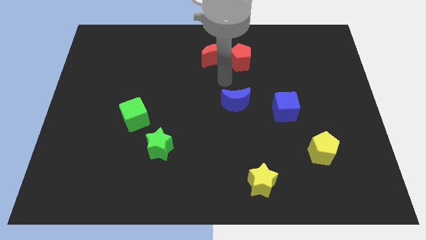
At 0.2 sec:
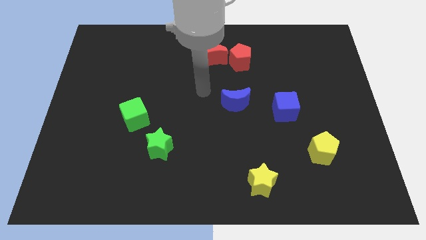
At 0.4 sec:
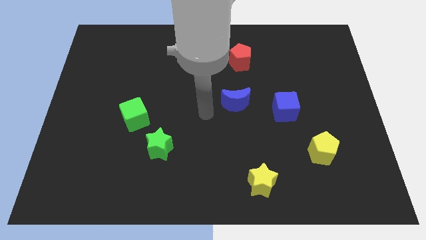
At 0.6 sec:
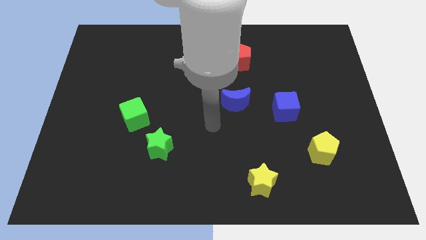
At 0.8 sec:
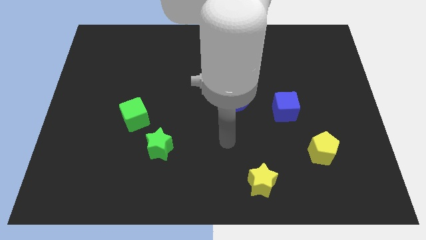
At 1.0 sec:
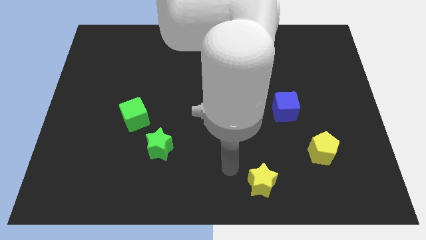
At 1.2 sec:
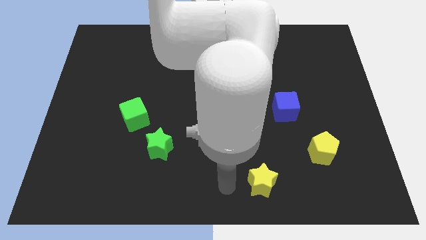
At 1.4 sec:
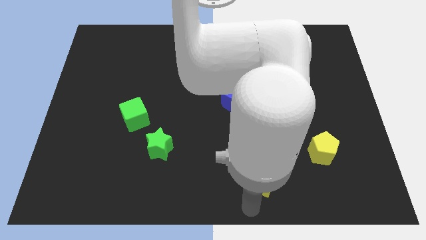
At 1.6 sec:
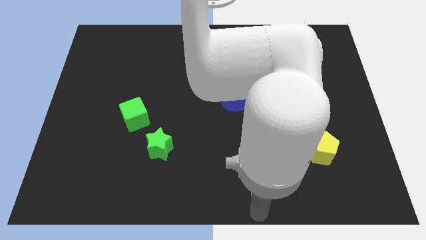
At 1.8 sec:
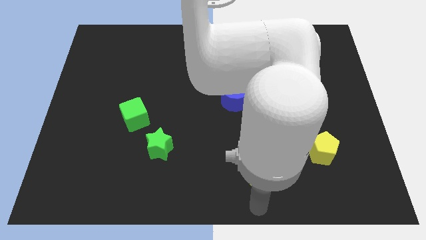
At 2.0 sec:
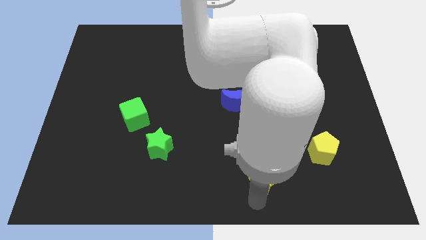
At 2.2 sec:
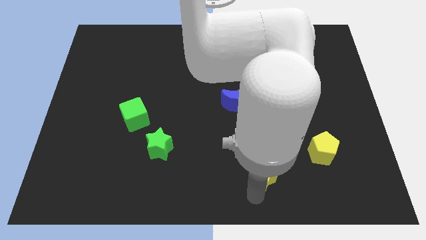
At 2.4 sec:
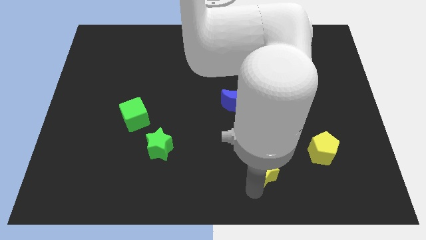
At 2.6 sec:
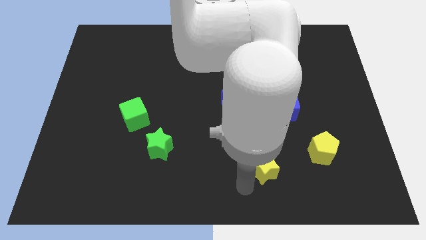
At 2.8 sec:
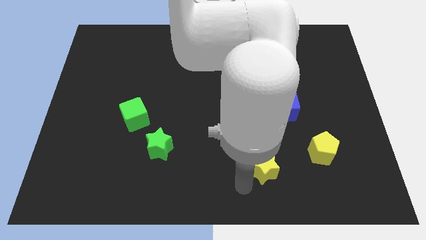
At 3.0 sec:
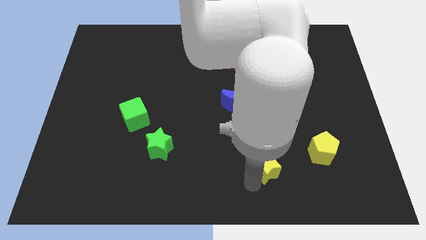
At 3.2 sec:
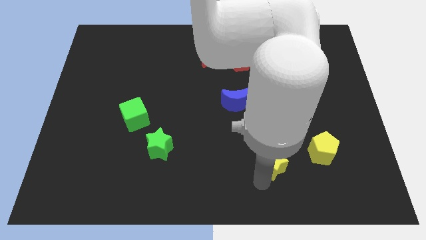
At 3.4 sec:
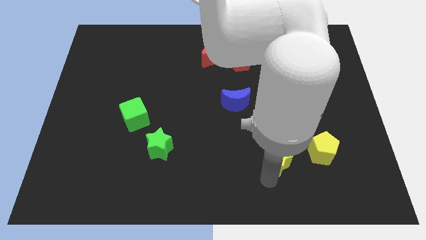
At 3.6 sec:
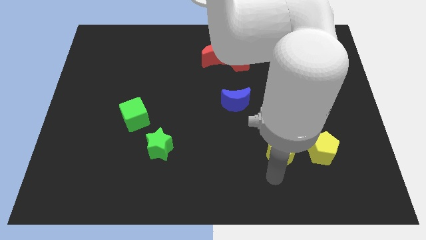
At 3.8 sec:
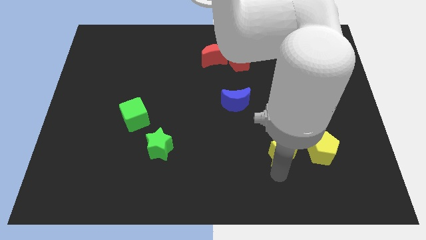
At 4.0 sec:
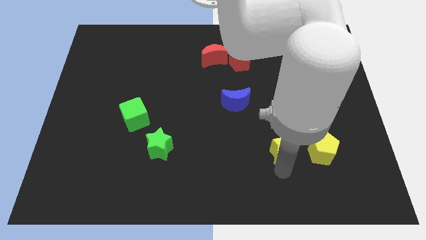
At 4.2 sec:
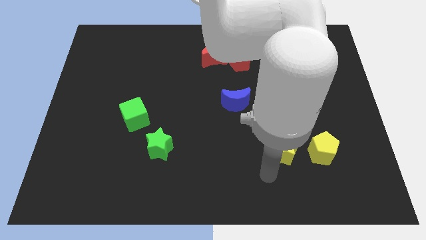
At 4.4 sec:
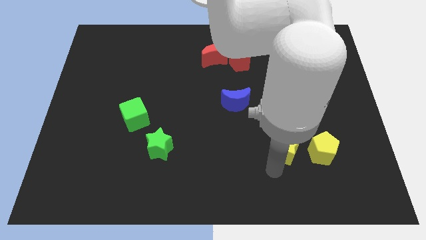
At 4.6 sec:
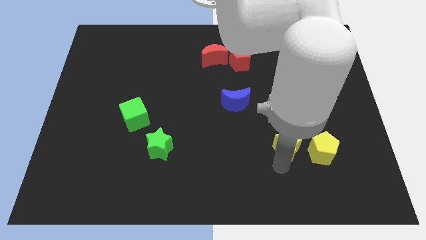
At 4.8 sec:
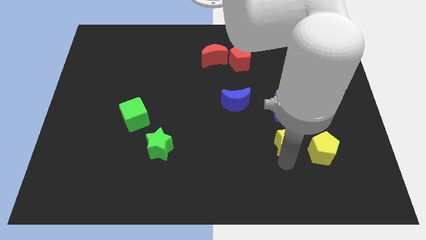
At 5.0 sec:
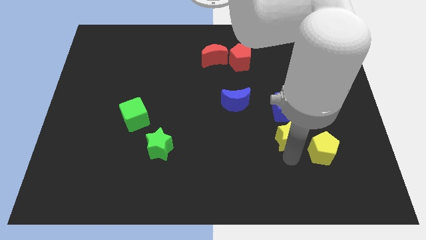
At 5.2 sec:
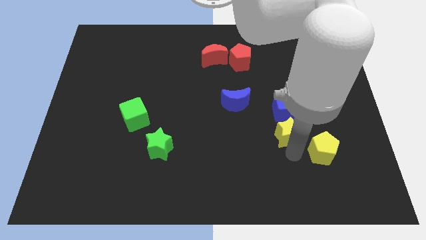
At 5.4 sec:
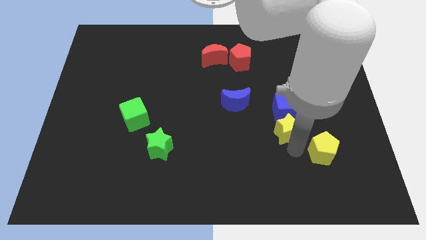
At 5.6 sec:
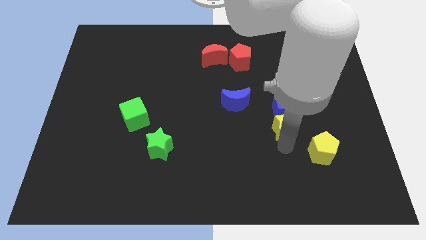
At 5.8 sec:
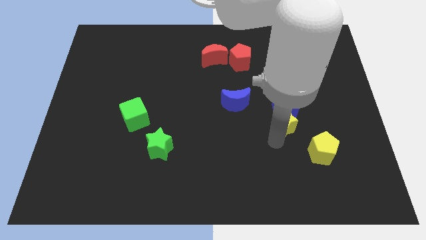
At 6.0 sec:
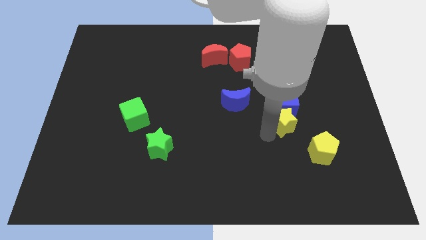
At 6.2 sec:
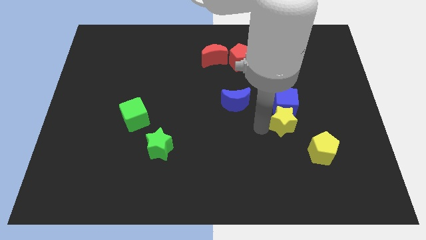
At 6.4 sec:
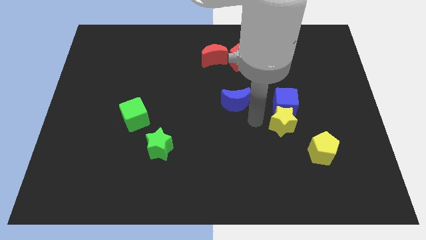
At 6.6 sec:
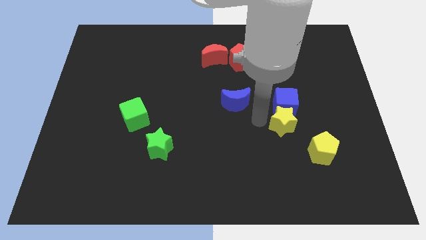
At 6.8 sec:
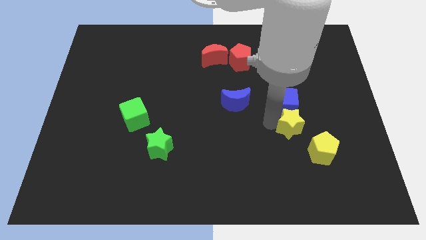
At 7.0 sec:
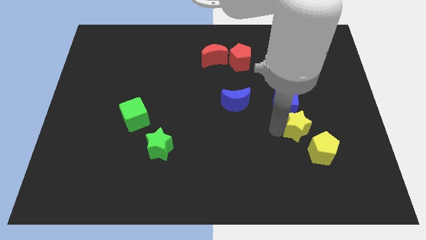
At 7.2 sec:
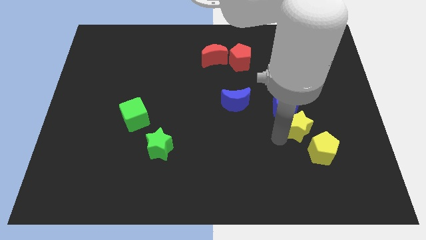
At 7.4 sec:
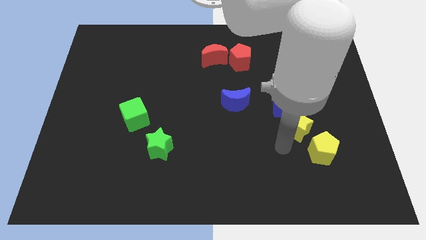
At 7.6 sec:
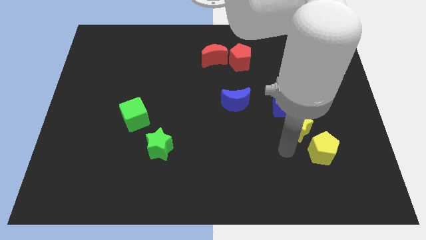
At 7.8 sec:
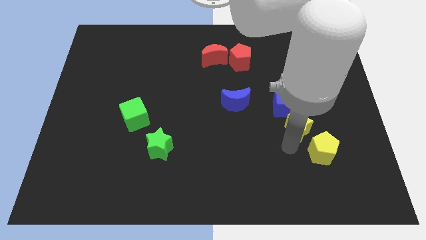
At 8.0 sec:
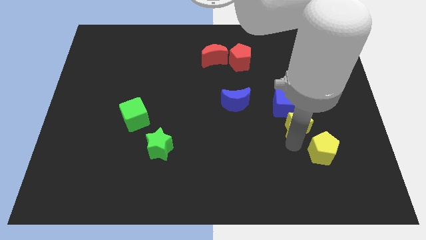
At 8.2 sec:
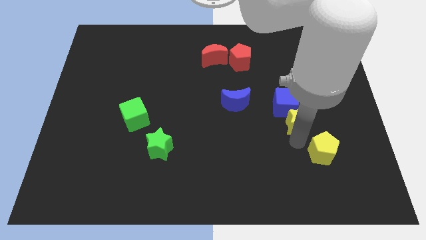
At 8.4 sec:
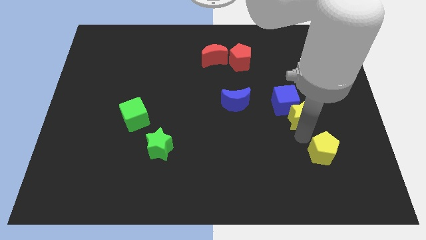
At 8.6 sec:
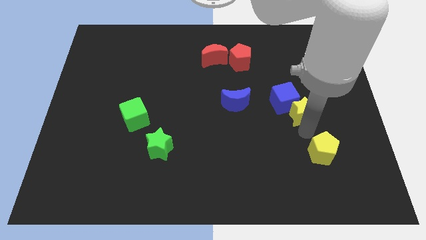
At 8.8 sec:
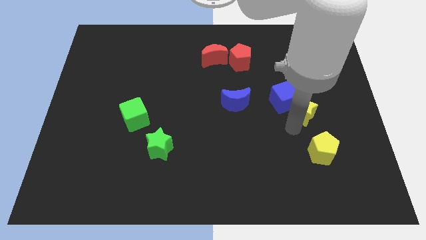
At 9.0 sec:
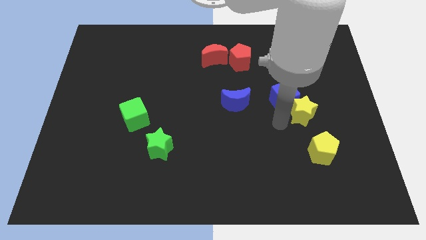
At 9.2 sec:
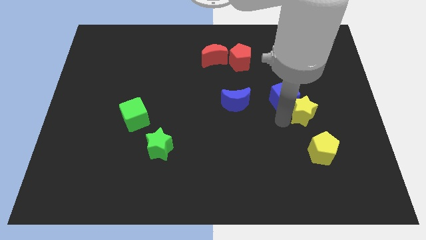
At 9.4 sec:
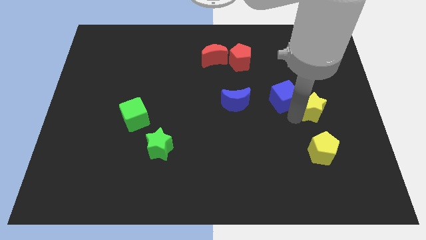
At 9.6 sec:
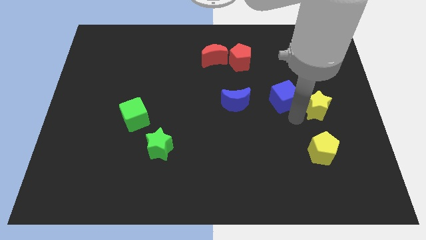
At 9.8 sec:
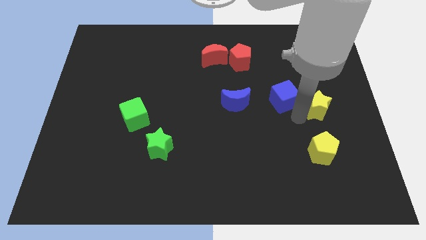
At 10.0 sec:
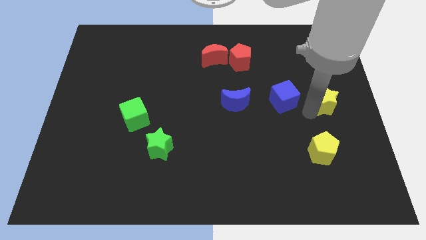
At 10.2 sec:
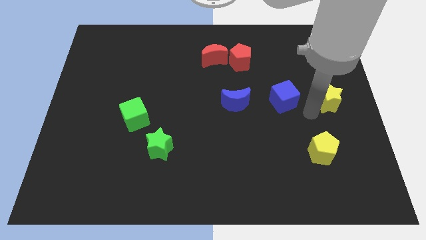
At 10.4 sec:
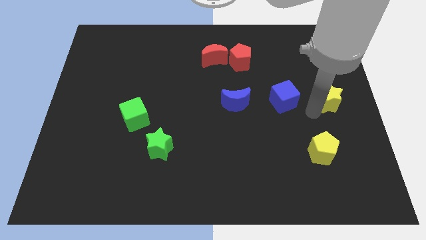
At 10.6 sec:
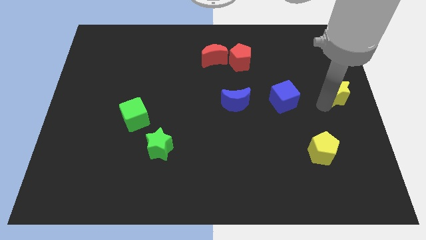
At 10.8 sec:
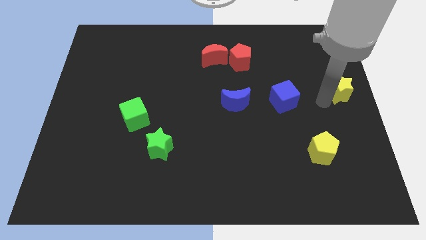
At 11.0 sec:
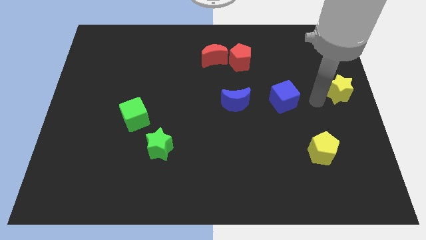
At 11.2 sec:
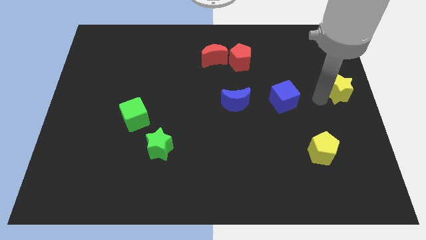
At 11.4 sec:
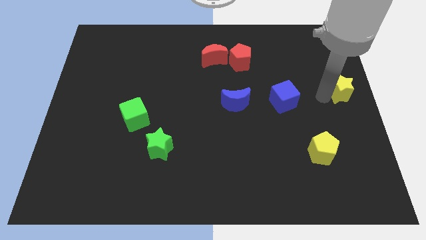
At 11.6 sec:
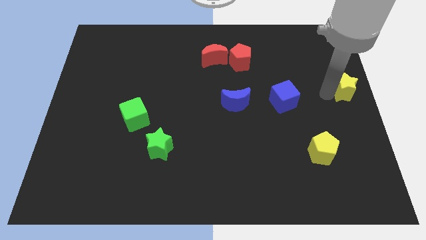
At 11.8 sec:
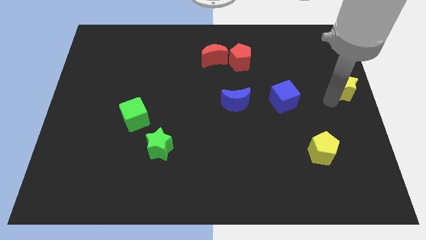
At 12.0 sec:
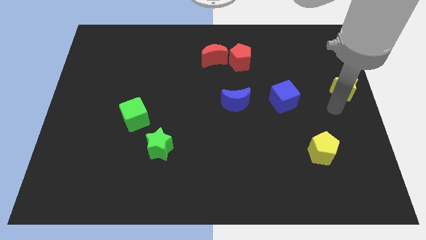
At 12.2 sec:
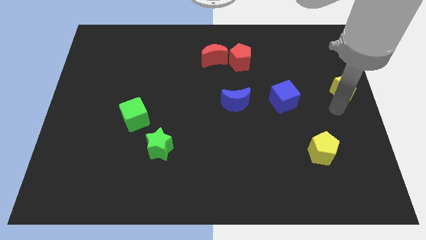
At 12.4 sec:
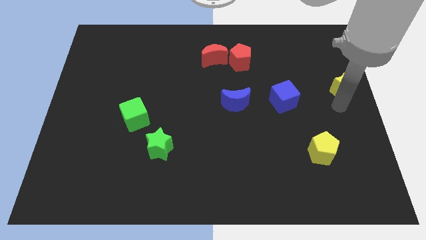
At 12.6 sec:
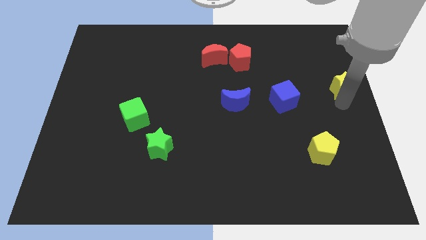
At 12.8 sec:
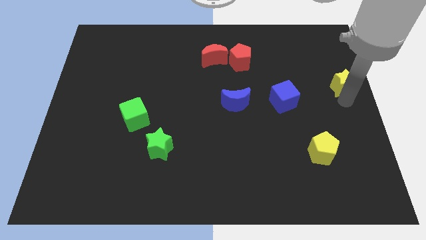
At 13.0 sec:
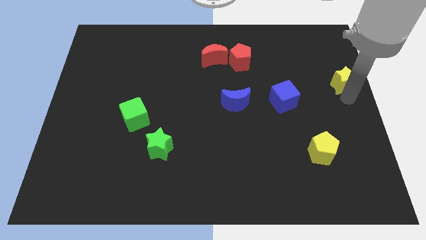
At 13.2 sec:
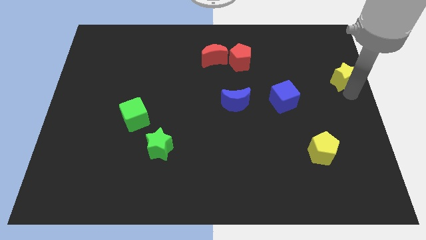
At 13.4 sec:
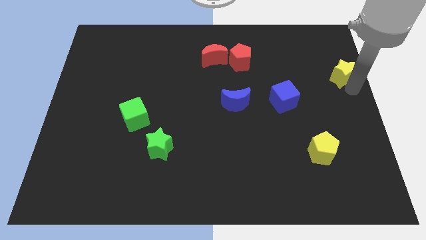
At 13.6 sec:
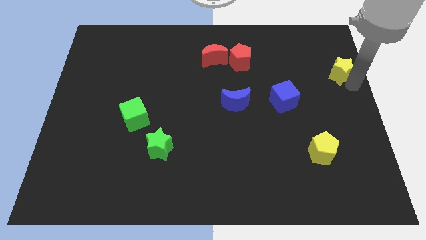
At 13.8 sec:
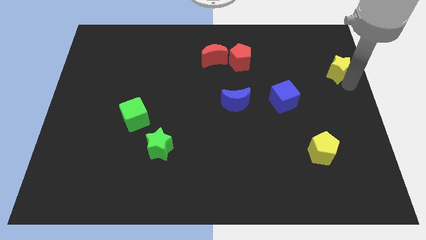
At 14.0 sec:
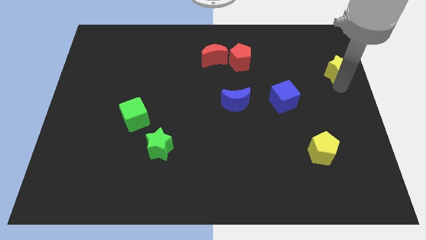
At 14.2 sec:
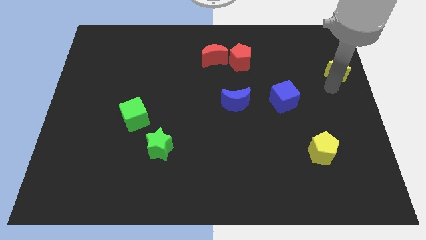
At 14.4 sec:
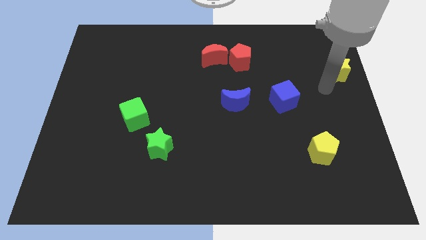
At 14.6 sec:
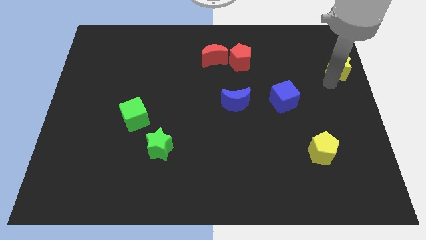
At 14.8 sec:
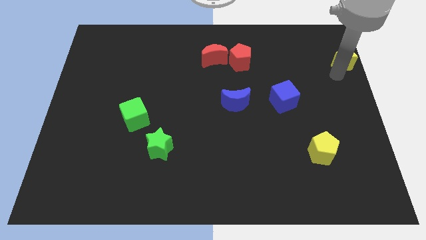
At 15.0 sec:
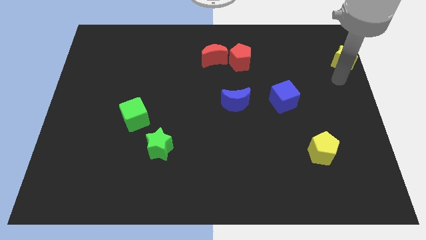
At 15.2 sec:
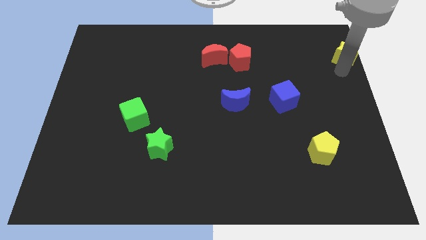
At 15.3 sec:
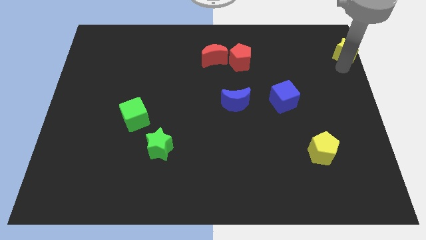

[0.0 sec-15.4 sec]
put the yellow star to the top right
